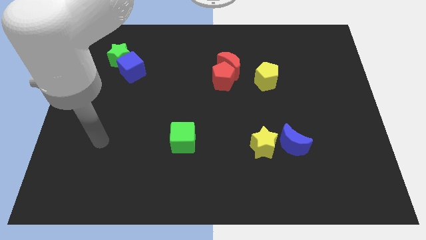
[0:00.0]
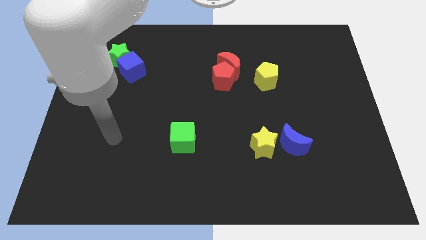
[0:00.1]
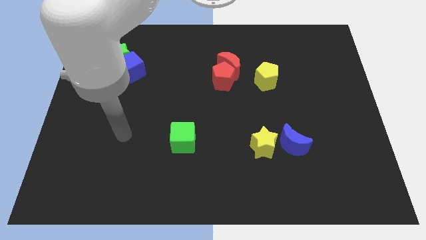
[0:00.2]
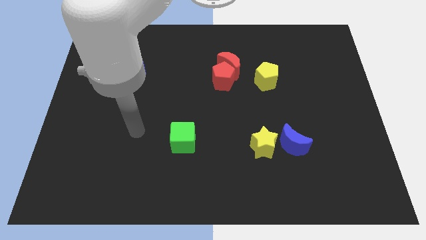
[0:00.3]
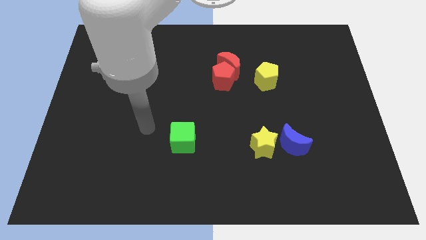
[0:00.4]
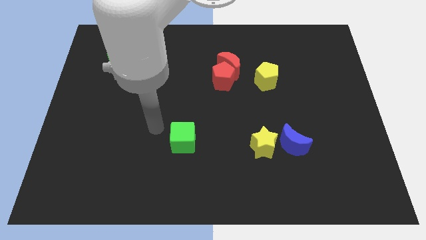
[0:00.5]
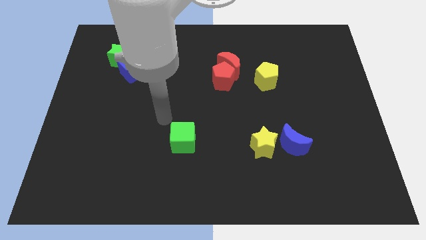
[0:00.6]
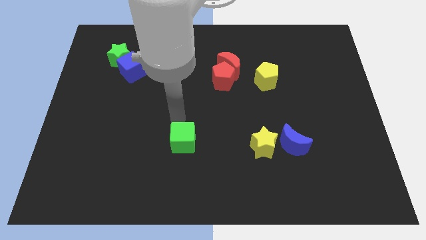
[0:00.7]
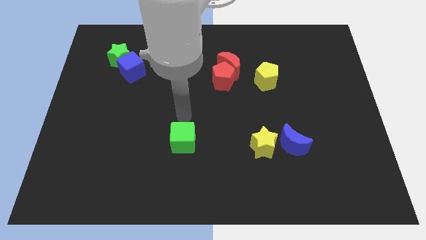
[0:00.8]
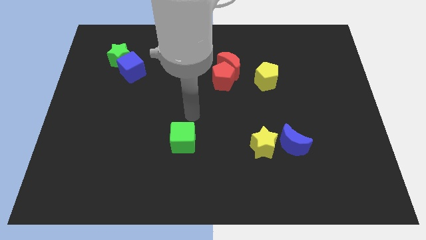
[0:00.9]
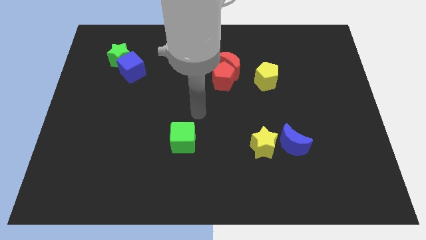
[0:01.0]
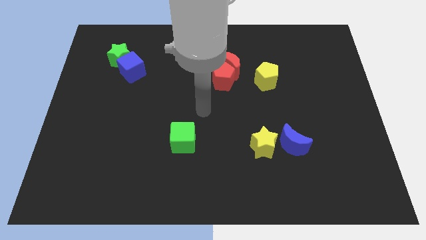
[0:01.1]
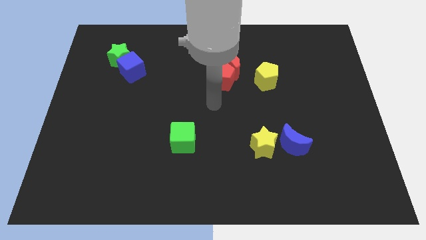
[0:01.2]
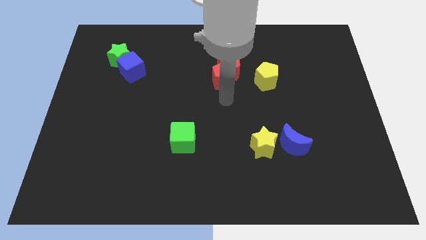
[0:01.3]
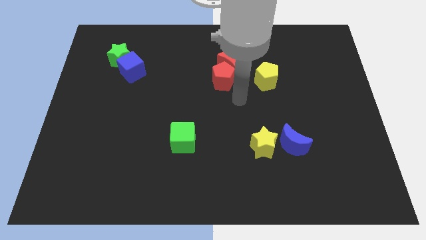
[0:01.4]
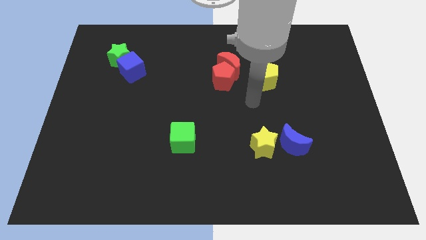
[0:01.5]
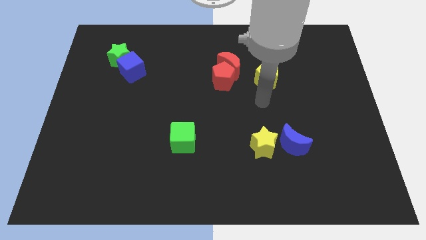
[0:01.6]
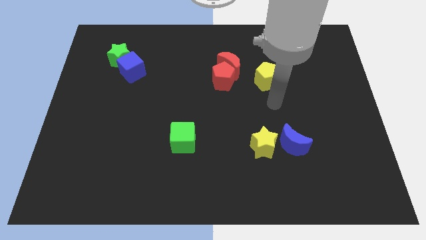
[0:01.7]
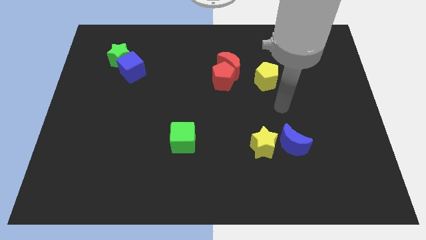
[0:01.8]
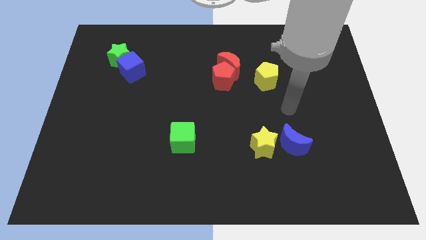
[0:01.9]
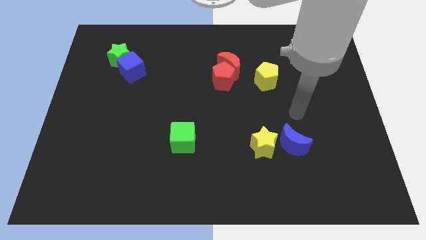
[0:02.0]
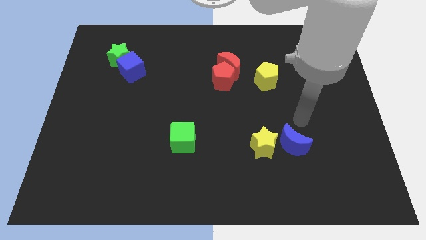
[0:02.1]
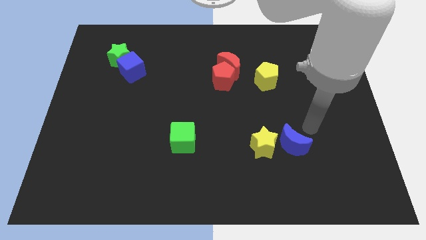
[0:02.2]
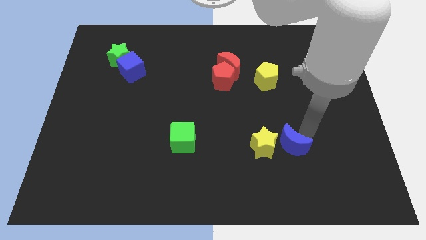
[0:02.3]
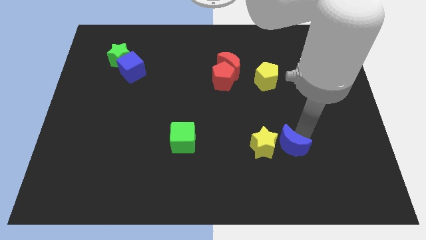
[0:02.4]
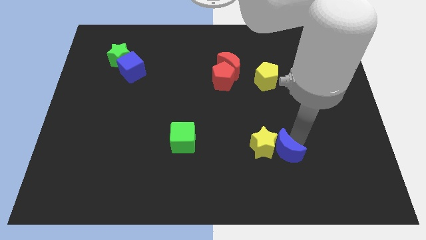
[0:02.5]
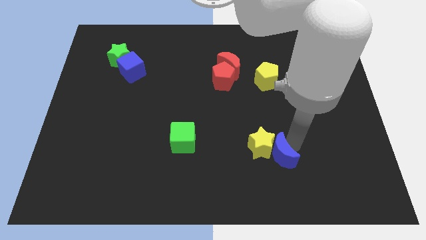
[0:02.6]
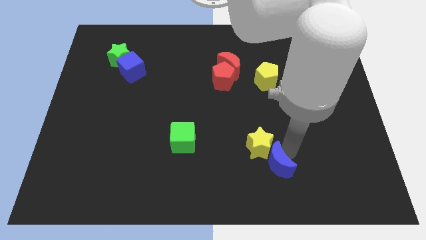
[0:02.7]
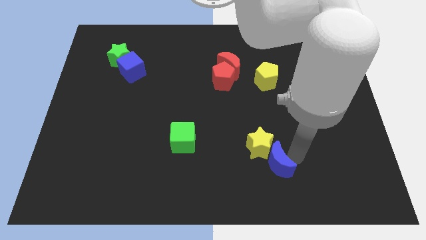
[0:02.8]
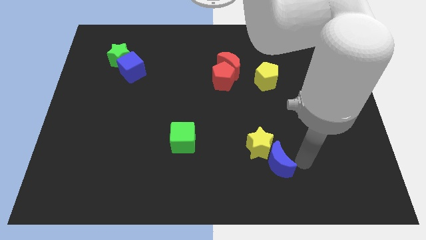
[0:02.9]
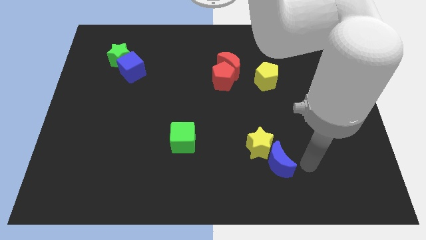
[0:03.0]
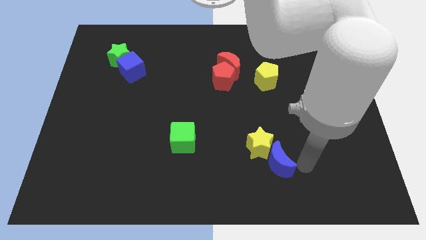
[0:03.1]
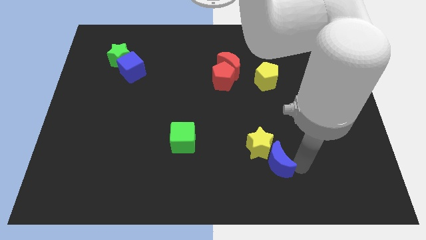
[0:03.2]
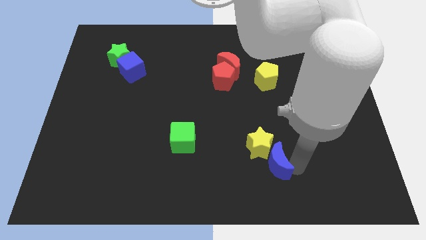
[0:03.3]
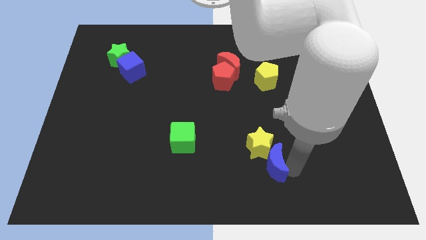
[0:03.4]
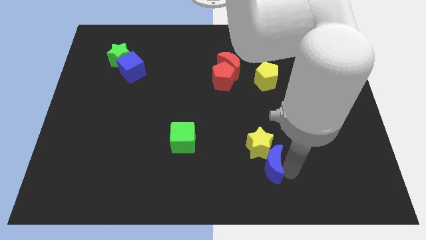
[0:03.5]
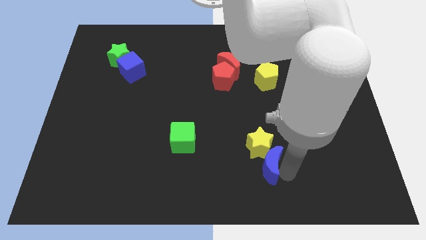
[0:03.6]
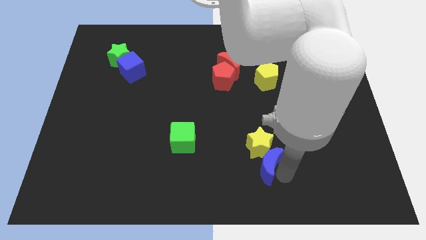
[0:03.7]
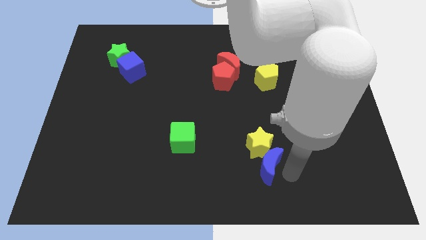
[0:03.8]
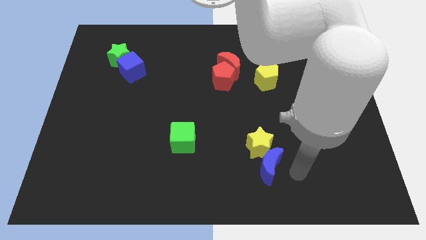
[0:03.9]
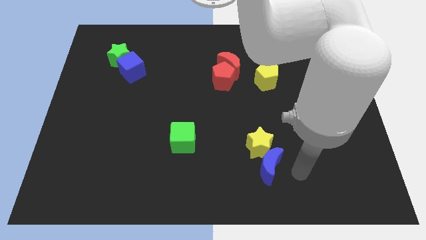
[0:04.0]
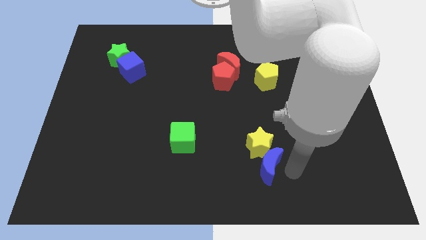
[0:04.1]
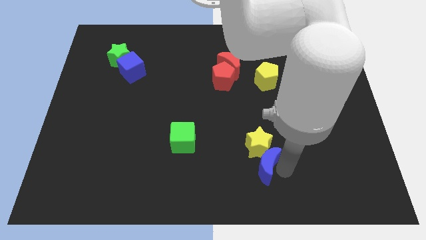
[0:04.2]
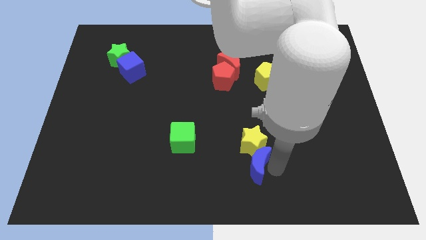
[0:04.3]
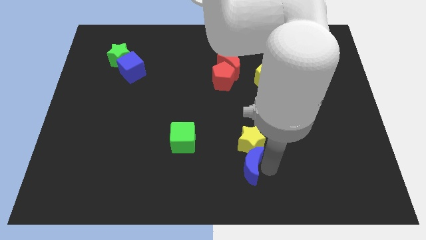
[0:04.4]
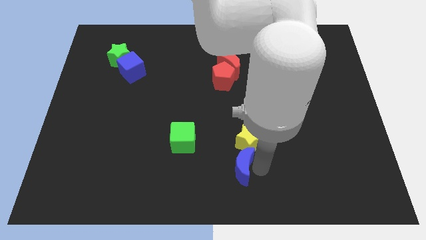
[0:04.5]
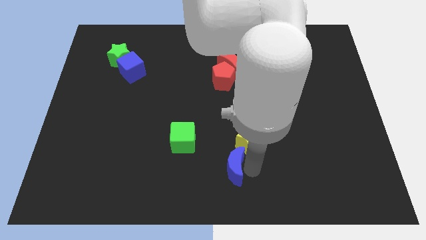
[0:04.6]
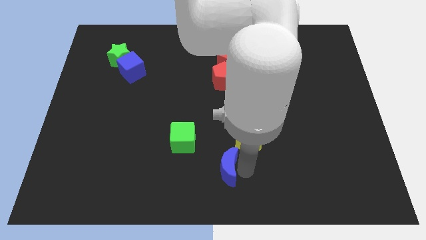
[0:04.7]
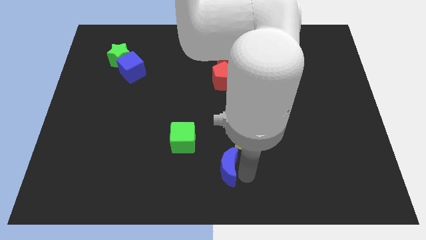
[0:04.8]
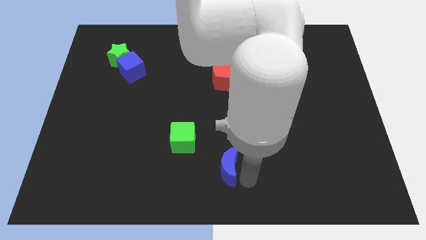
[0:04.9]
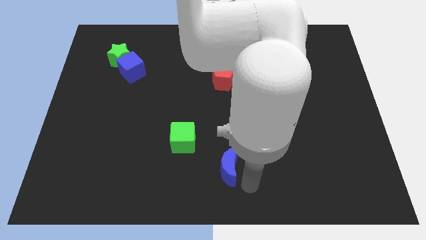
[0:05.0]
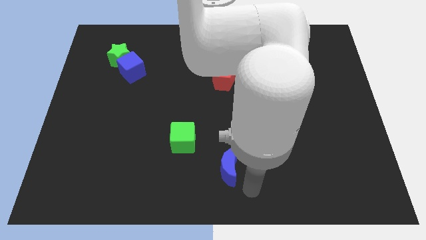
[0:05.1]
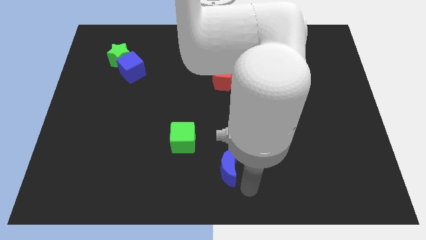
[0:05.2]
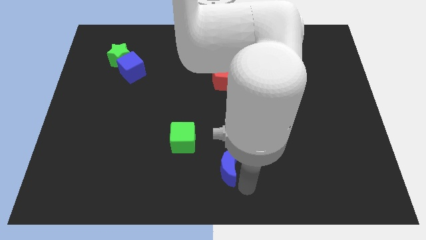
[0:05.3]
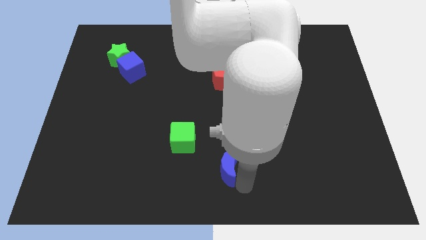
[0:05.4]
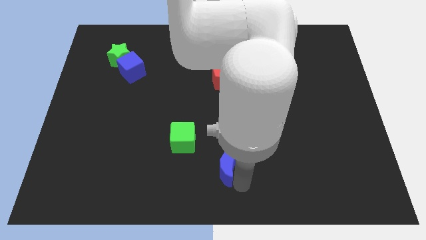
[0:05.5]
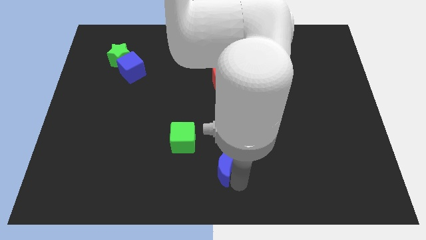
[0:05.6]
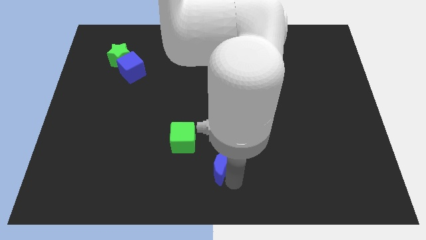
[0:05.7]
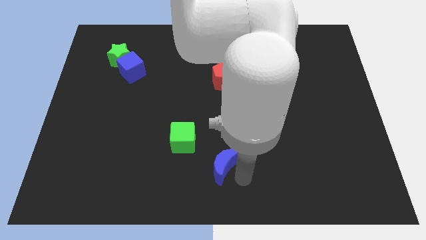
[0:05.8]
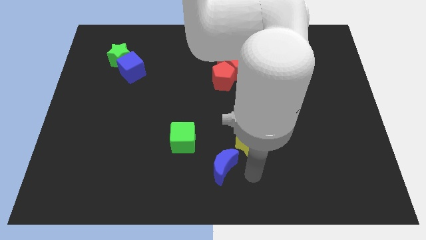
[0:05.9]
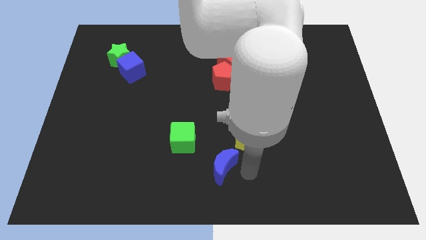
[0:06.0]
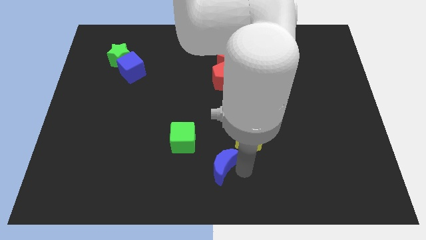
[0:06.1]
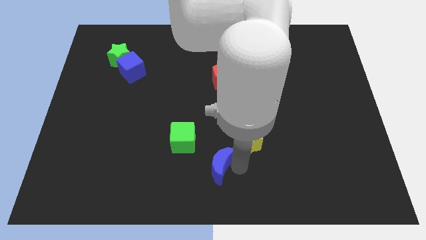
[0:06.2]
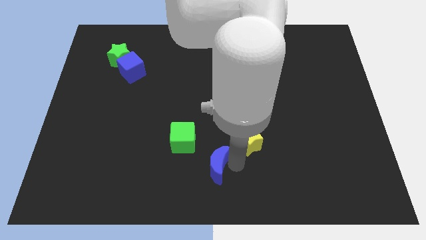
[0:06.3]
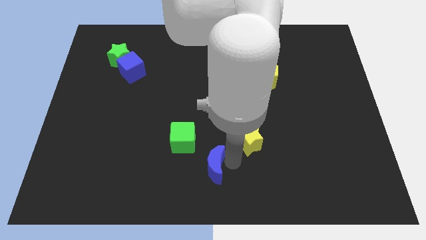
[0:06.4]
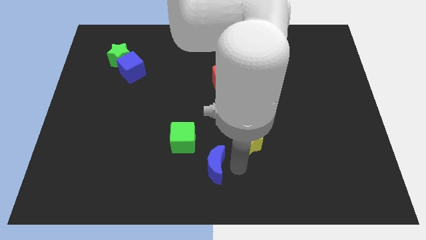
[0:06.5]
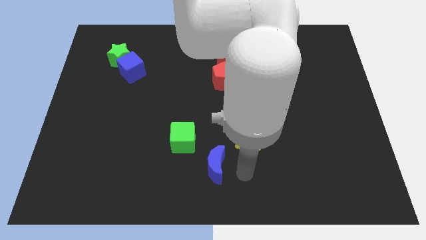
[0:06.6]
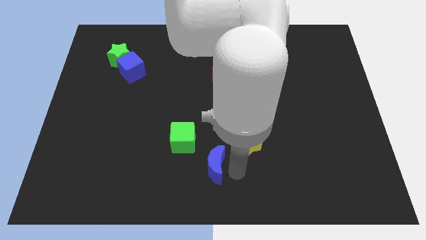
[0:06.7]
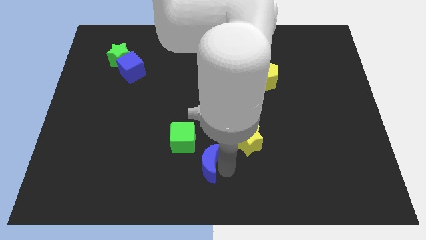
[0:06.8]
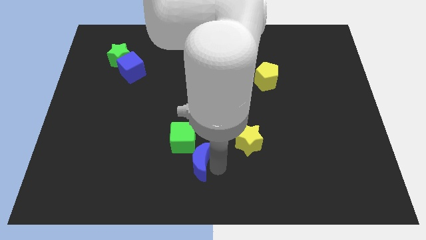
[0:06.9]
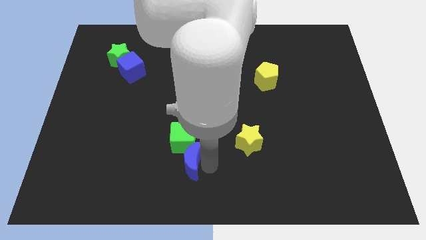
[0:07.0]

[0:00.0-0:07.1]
push the blue moon to the left

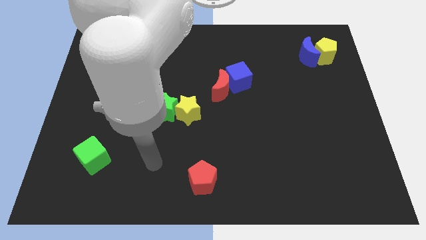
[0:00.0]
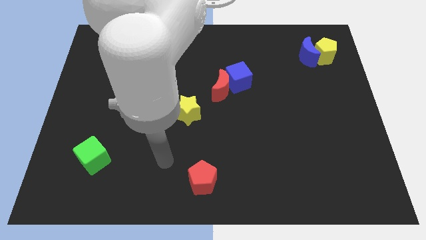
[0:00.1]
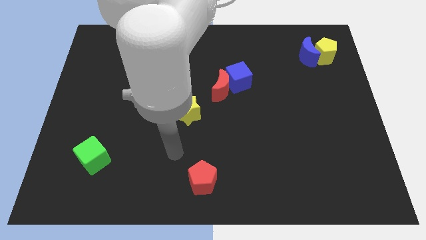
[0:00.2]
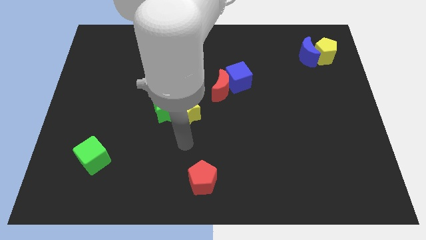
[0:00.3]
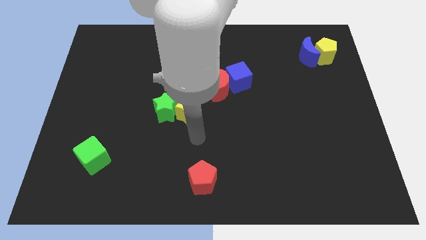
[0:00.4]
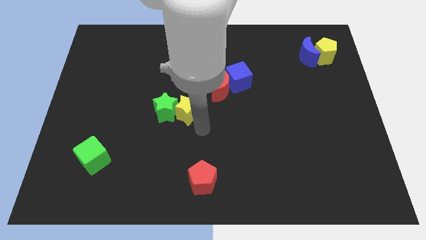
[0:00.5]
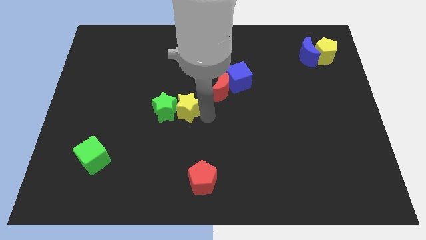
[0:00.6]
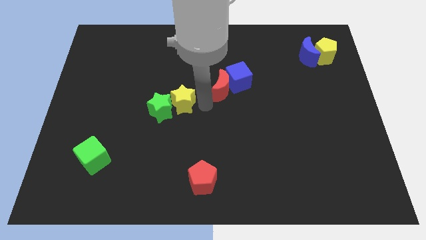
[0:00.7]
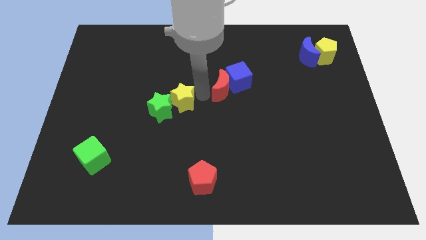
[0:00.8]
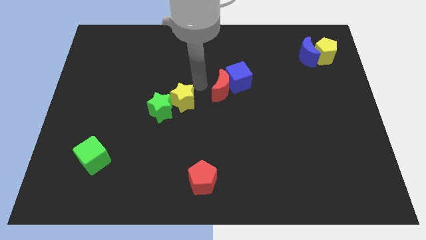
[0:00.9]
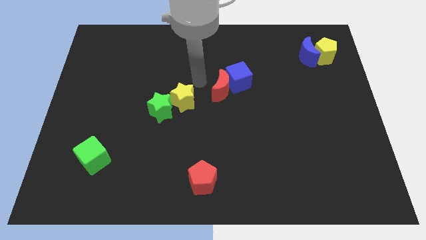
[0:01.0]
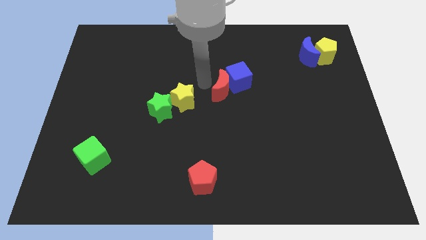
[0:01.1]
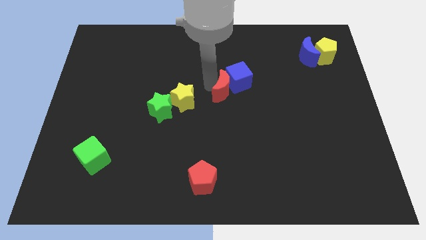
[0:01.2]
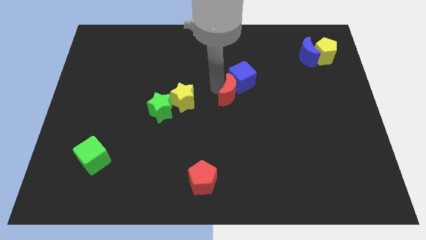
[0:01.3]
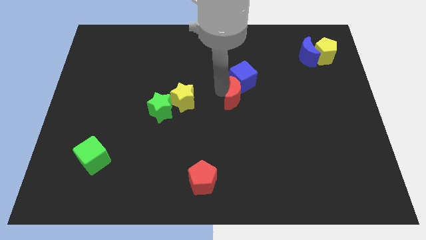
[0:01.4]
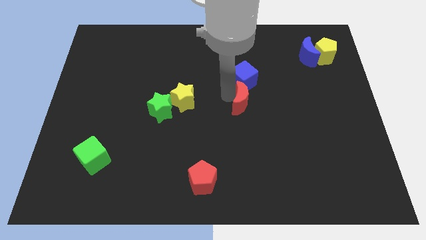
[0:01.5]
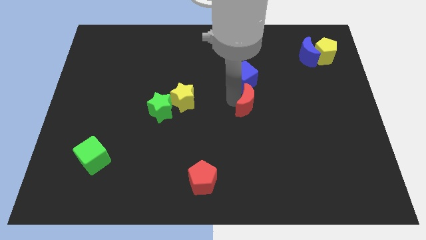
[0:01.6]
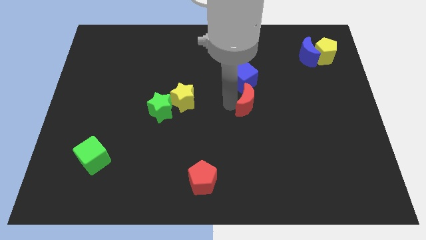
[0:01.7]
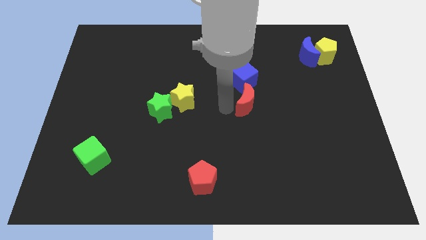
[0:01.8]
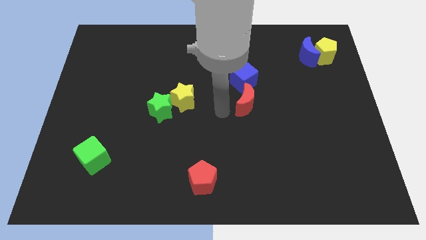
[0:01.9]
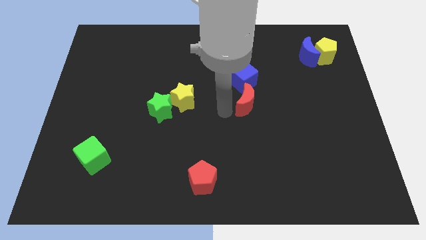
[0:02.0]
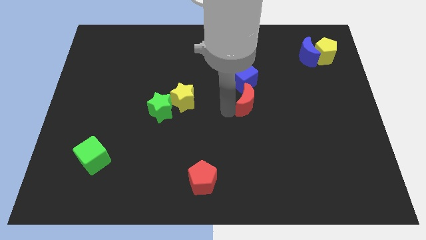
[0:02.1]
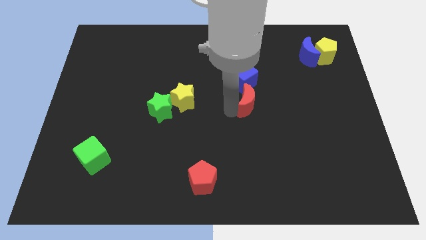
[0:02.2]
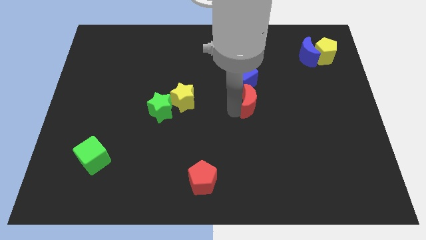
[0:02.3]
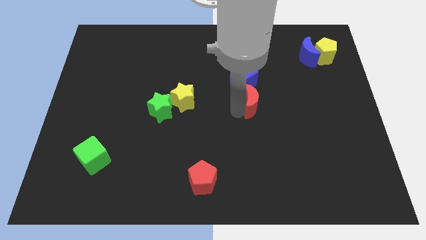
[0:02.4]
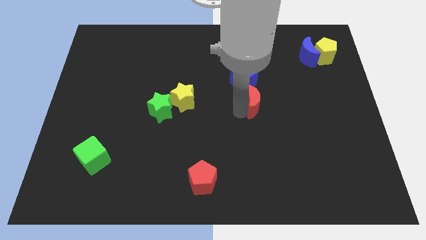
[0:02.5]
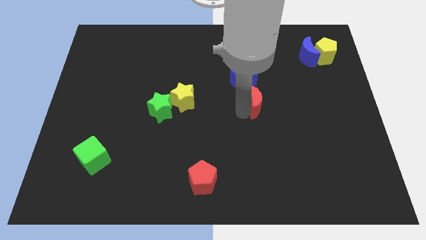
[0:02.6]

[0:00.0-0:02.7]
slightly slide the red moon to the right
